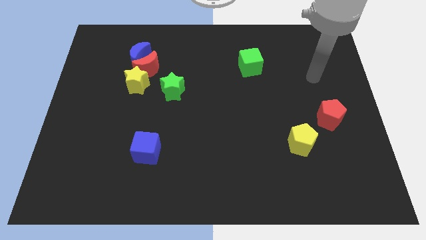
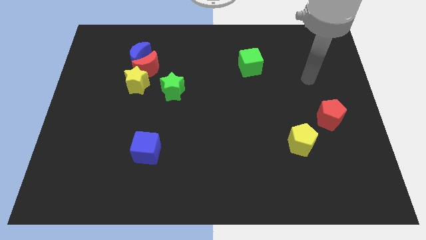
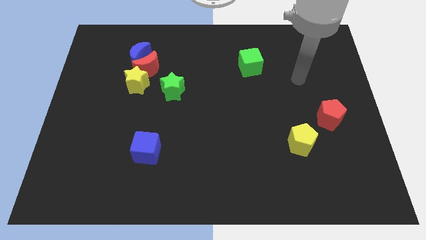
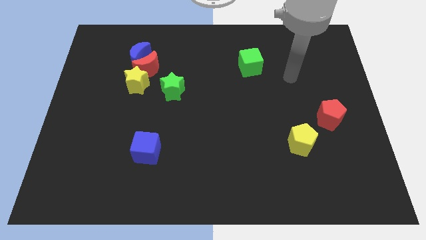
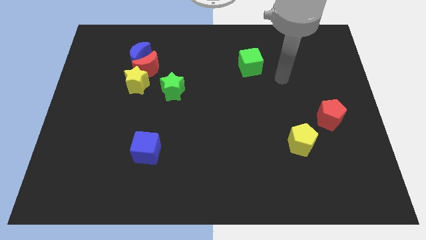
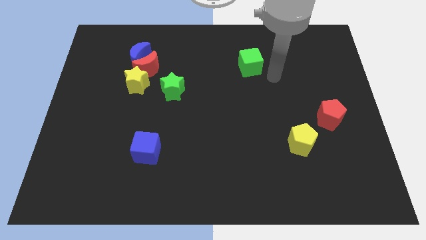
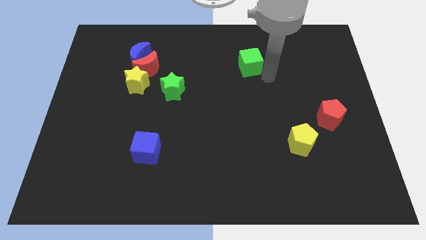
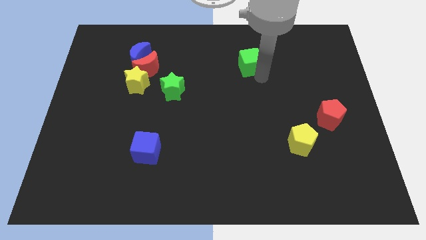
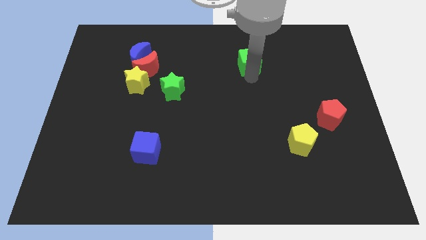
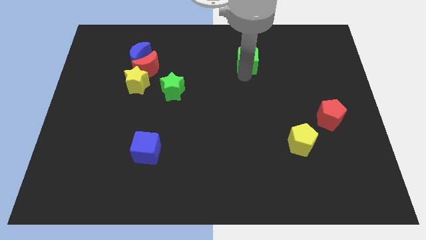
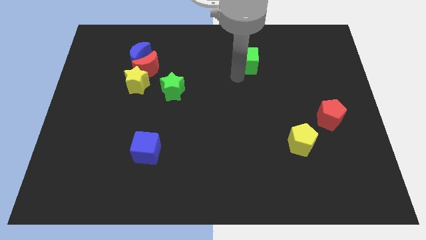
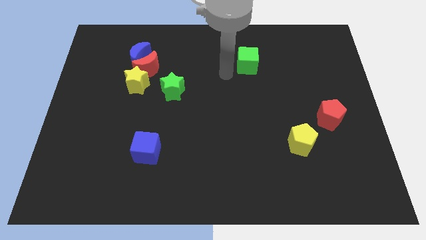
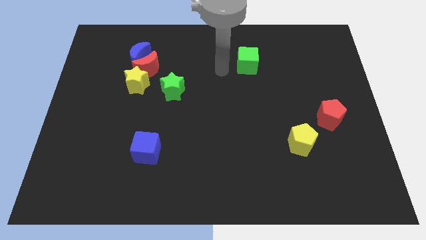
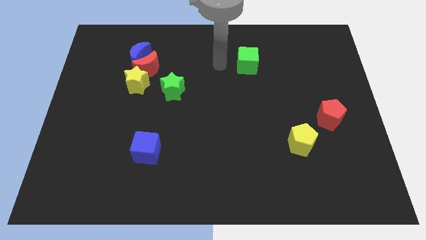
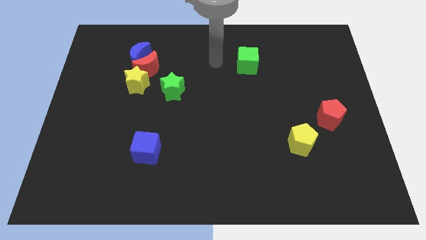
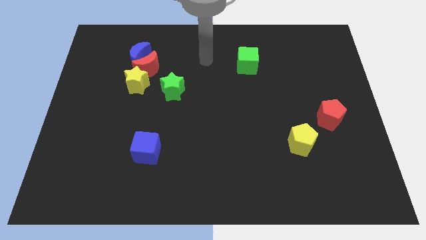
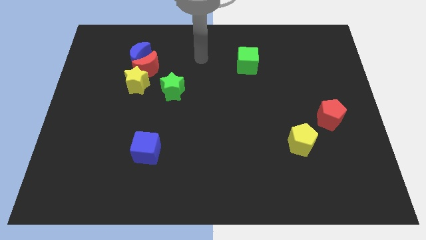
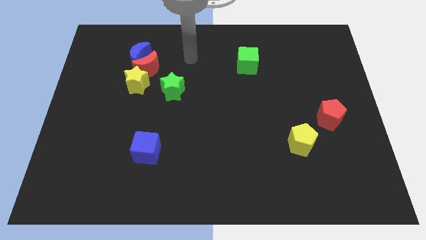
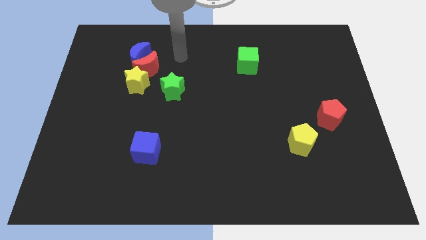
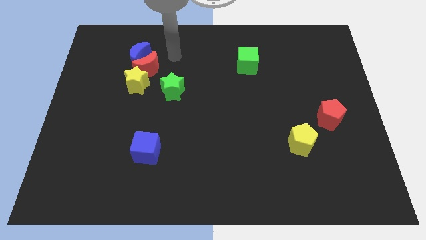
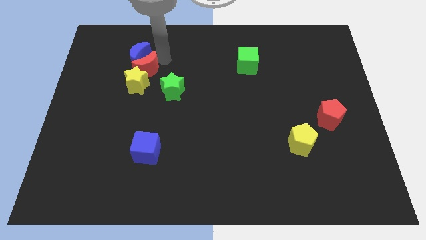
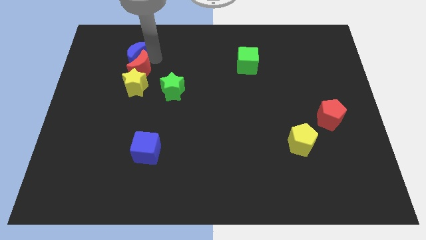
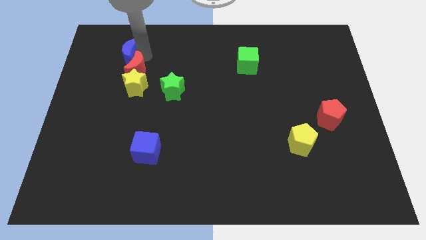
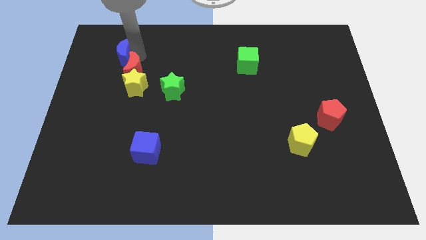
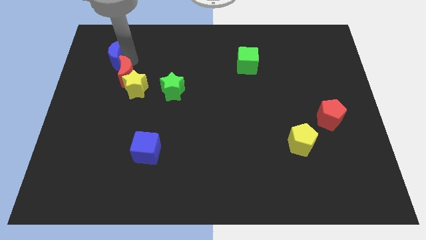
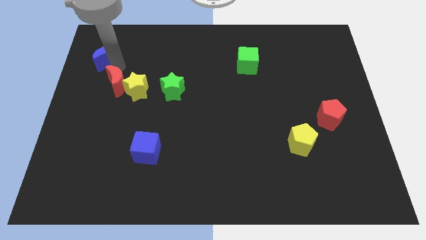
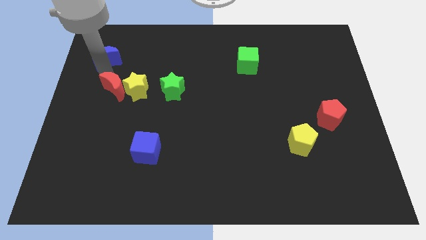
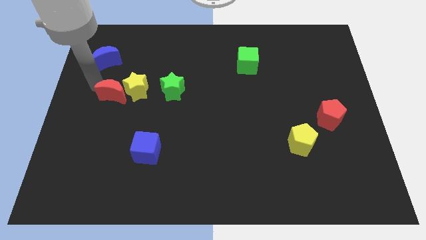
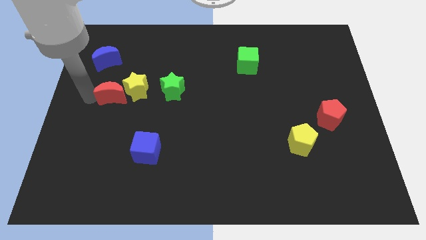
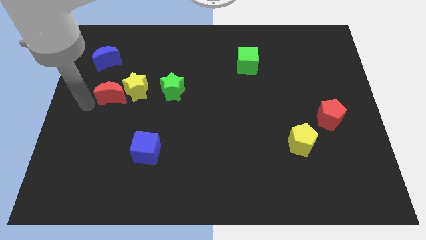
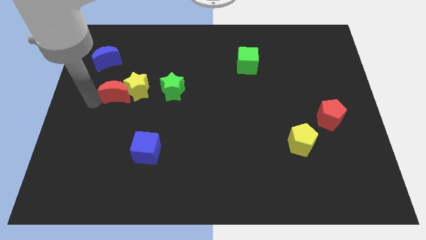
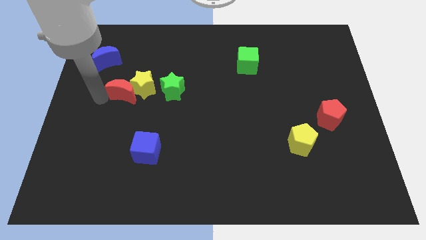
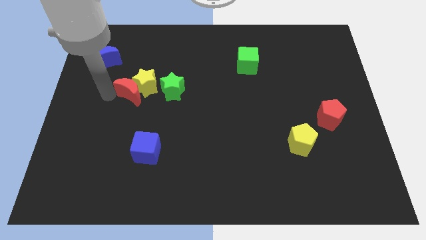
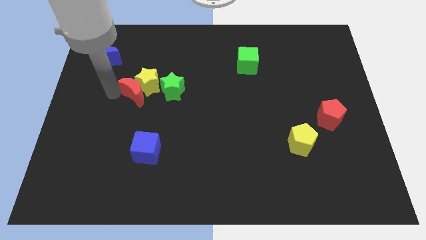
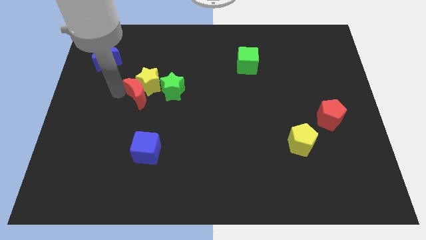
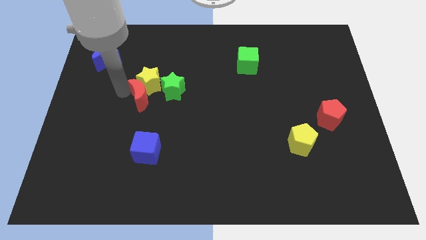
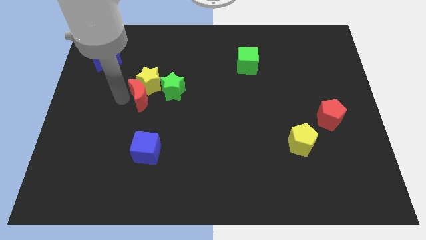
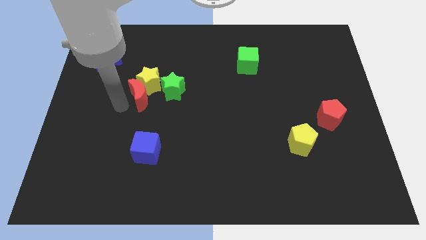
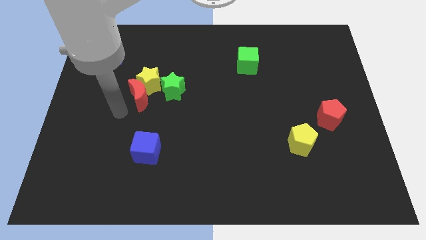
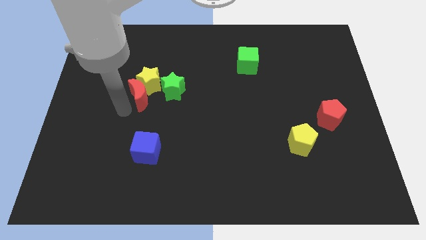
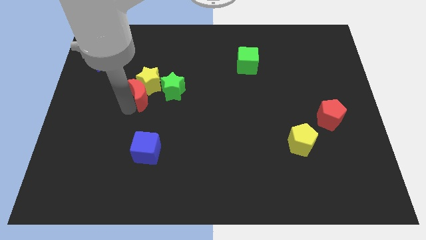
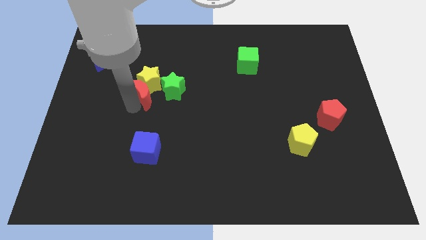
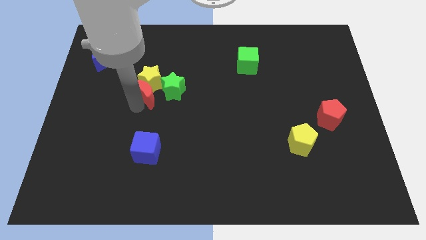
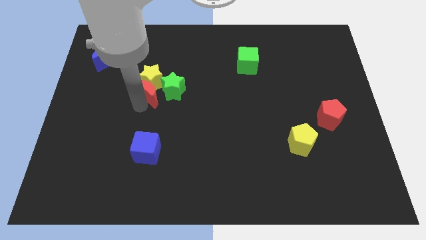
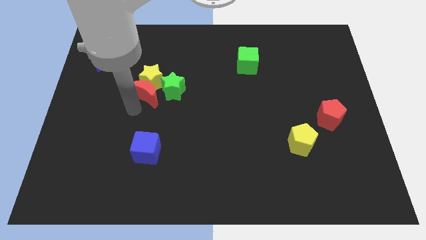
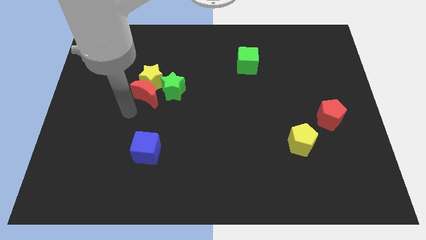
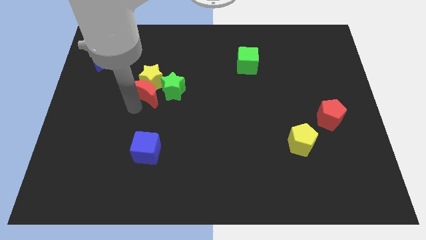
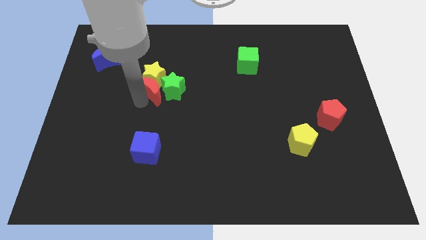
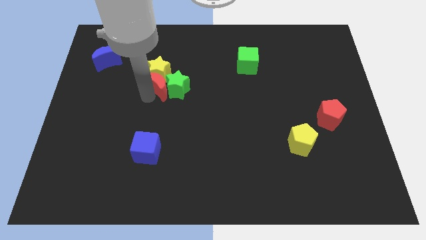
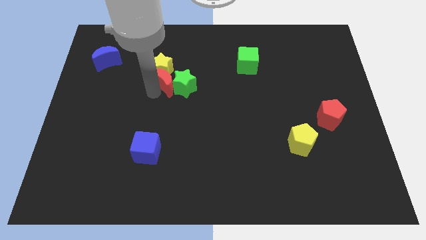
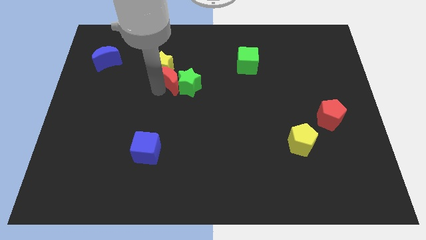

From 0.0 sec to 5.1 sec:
move the red moon to the middle

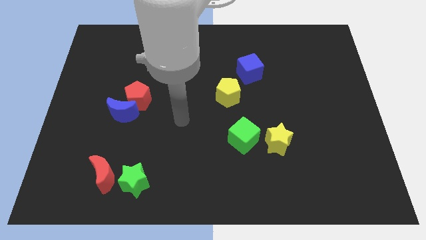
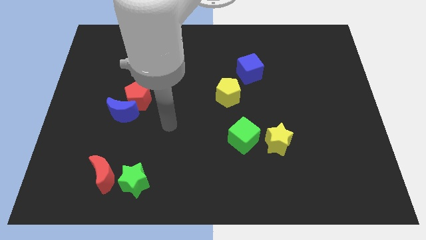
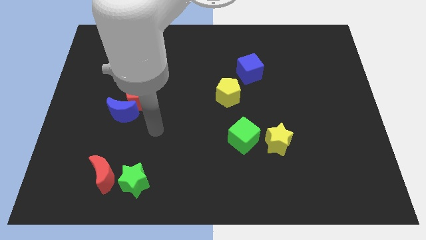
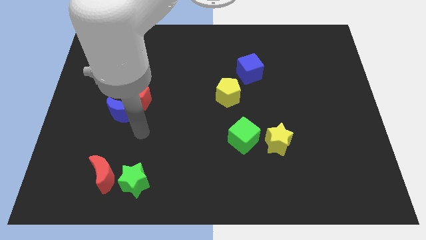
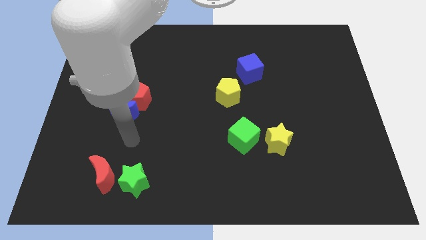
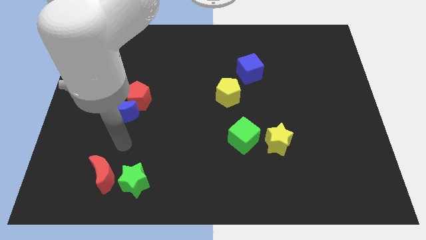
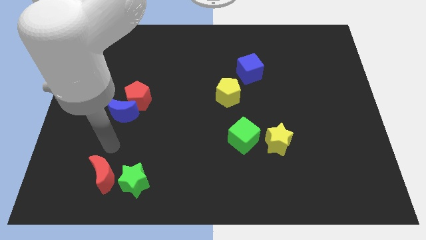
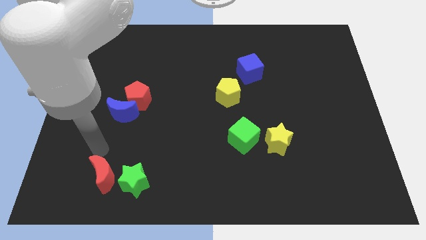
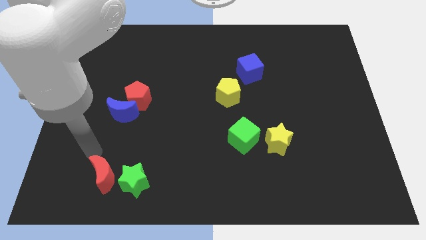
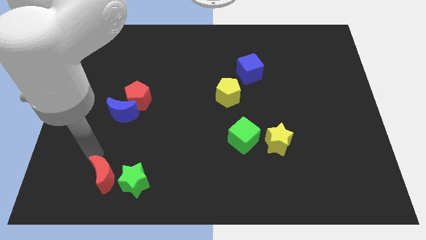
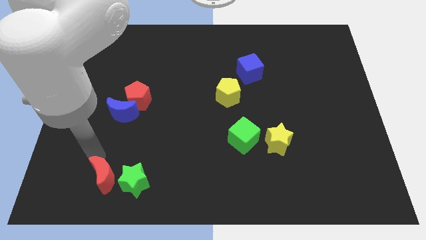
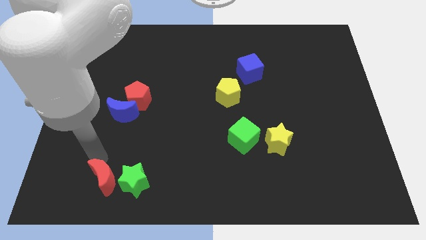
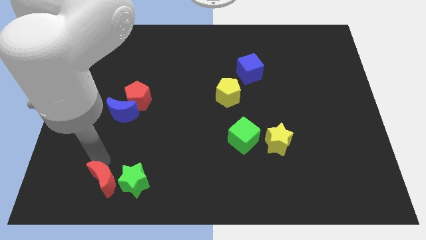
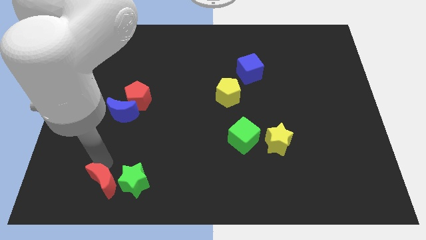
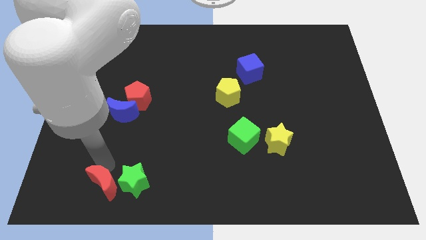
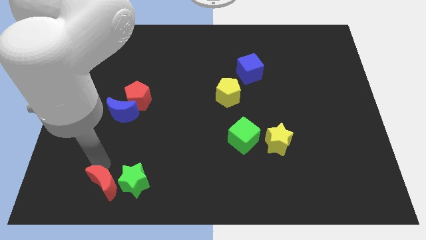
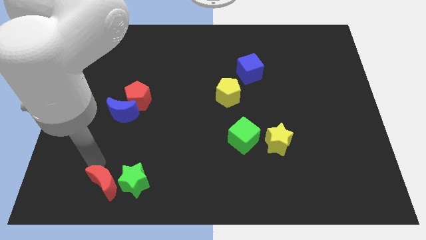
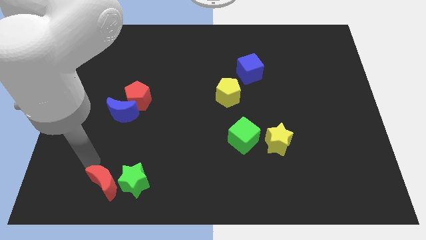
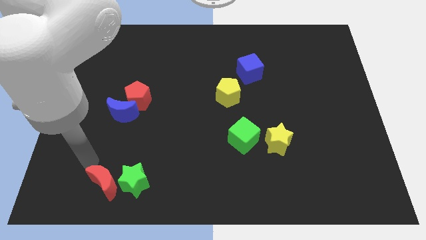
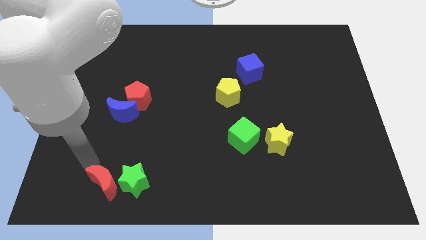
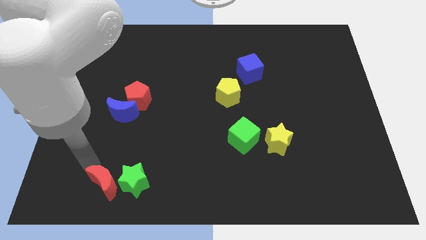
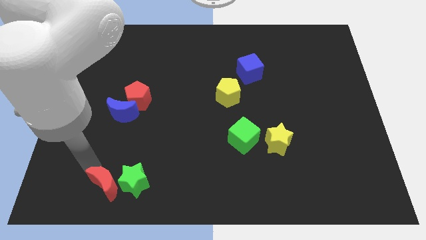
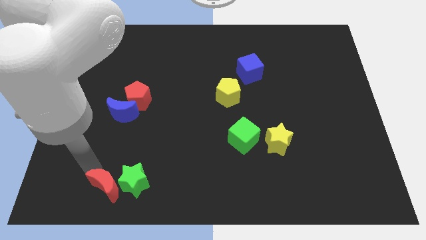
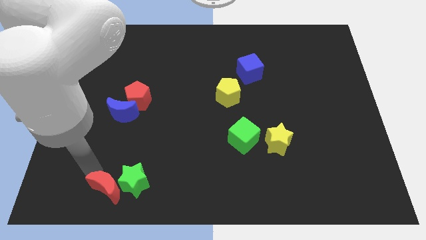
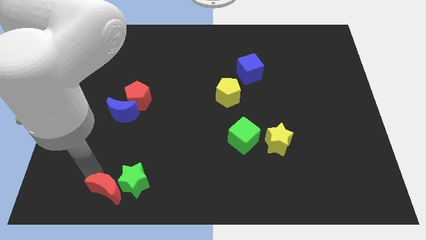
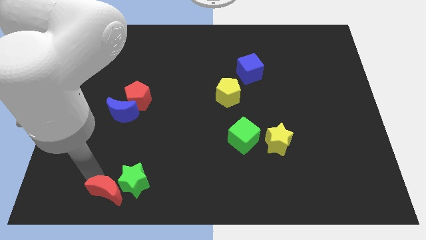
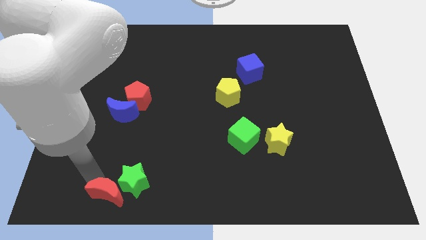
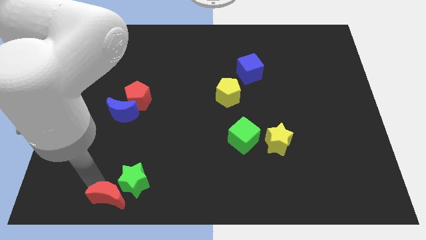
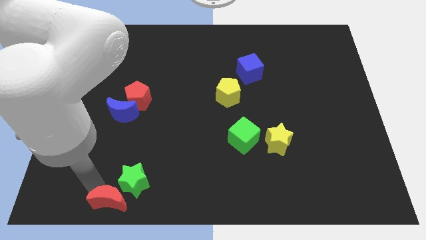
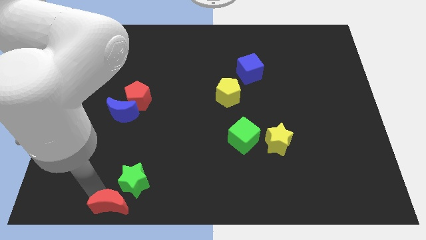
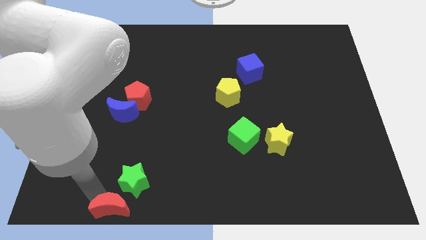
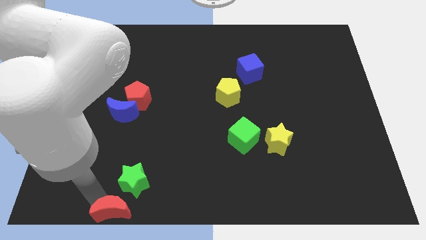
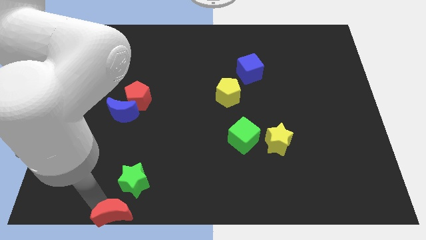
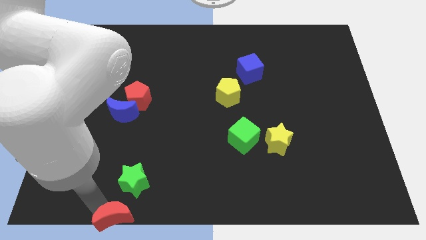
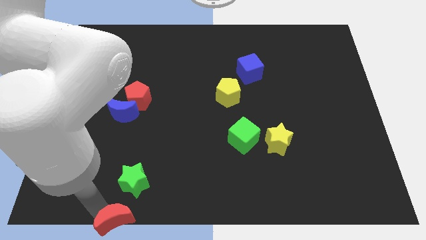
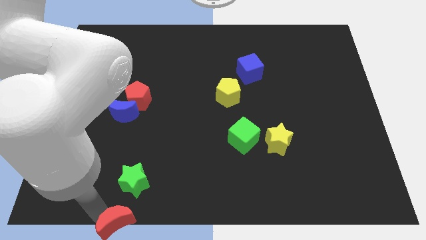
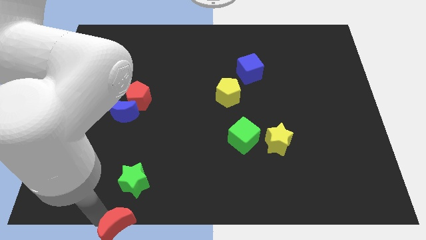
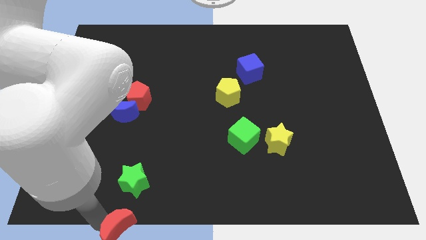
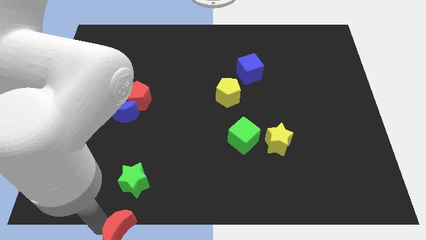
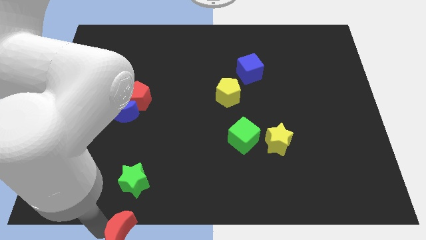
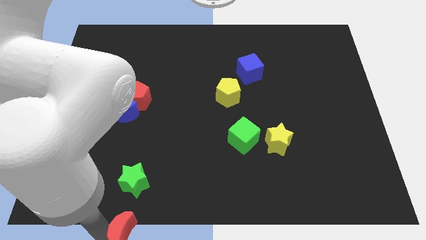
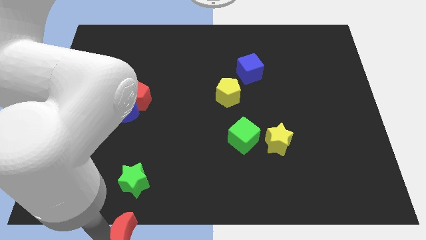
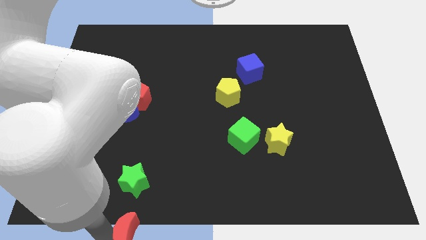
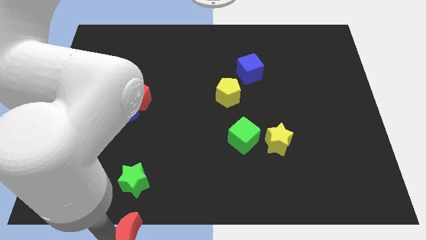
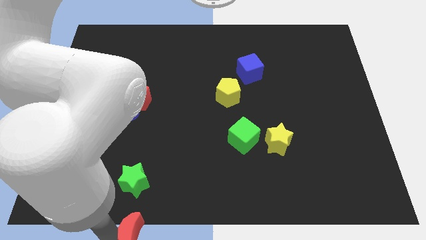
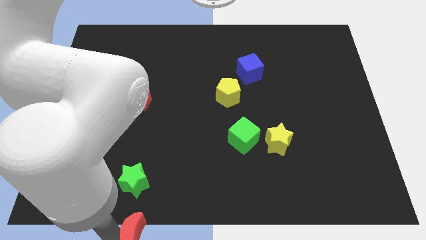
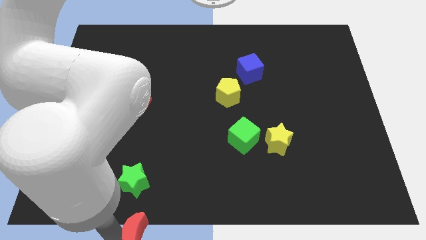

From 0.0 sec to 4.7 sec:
slide the red moon to the bottom side
